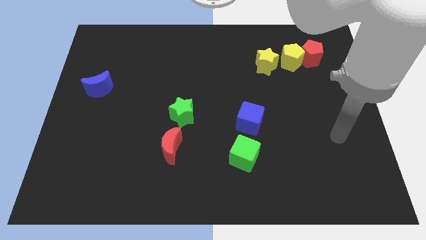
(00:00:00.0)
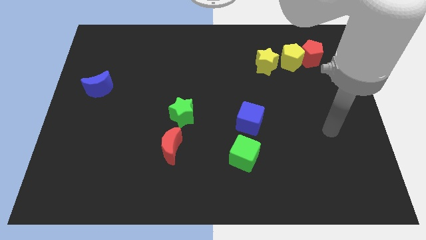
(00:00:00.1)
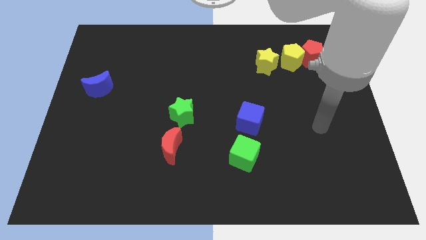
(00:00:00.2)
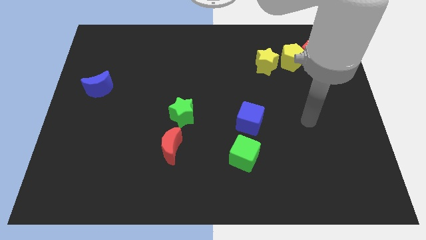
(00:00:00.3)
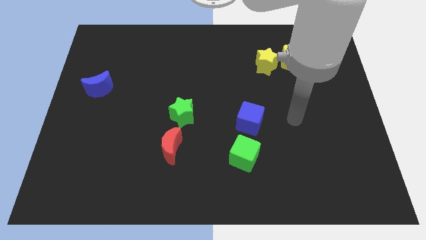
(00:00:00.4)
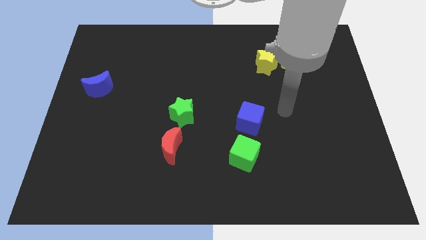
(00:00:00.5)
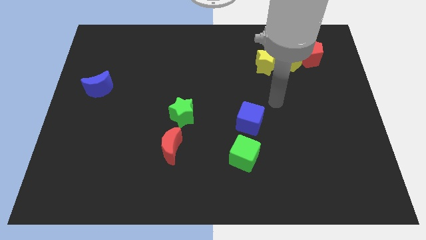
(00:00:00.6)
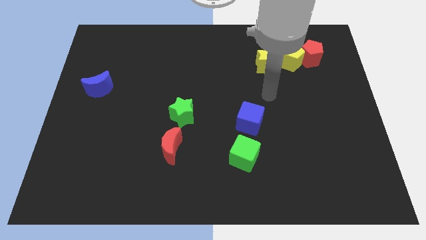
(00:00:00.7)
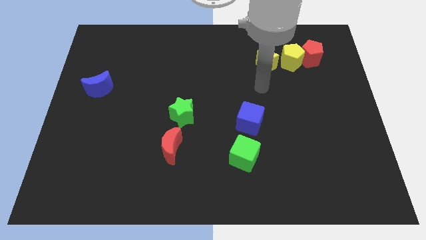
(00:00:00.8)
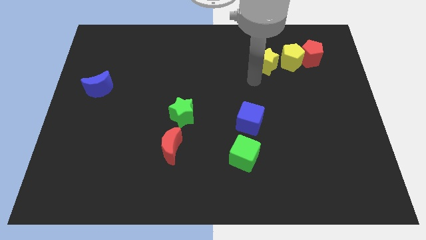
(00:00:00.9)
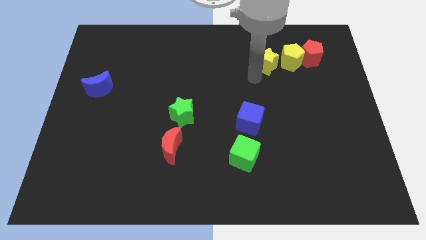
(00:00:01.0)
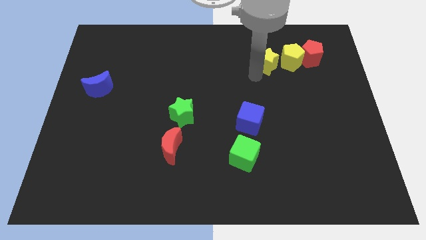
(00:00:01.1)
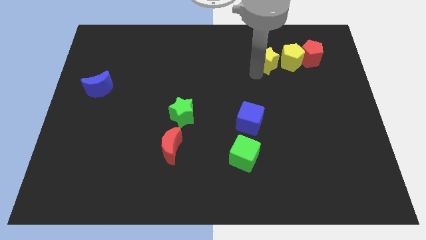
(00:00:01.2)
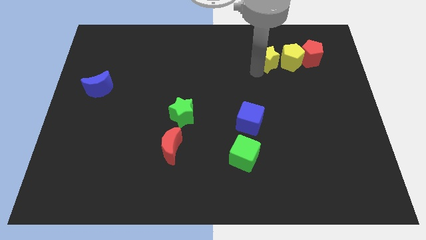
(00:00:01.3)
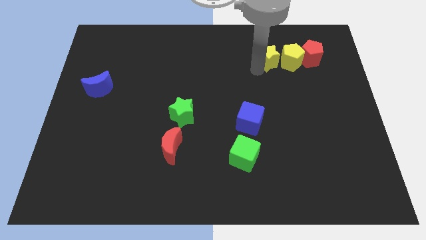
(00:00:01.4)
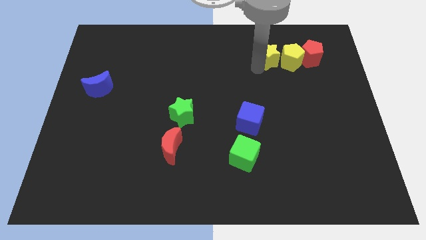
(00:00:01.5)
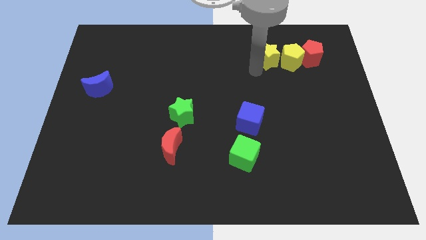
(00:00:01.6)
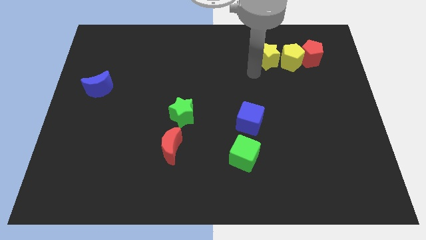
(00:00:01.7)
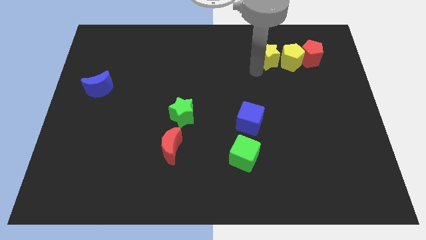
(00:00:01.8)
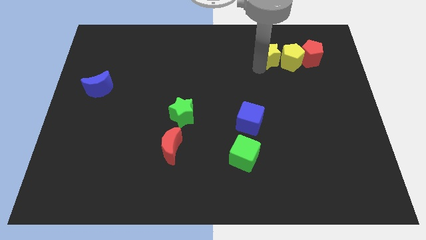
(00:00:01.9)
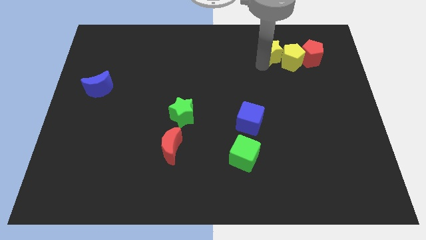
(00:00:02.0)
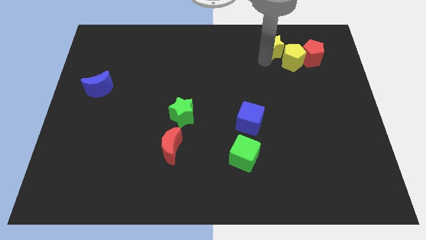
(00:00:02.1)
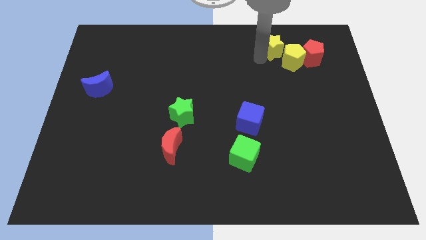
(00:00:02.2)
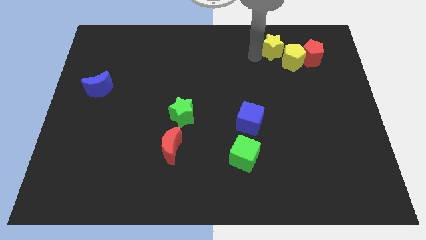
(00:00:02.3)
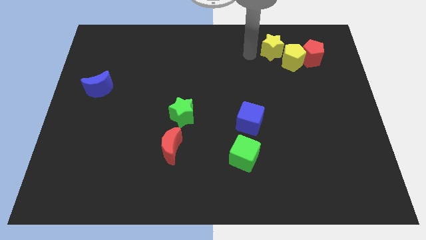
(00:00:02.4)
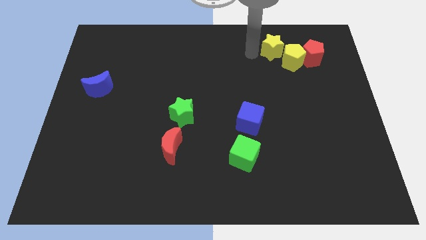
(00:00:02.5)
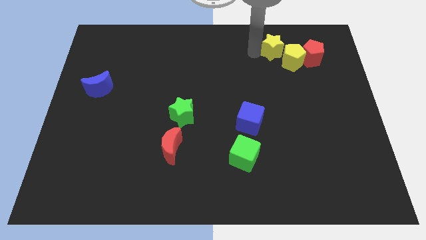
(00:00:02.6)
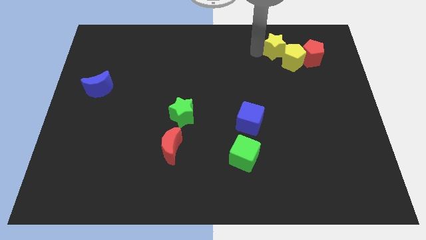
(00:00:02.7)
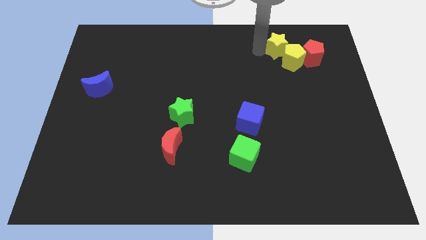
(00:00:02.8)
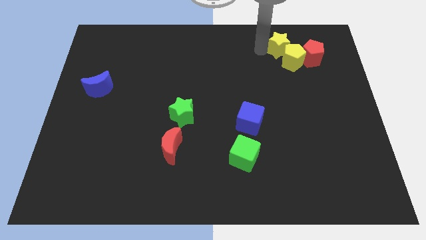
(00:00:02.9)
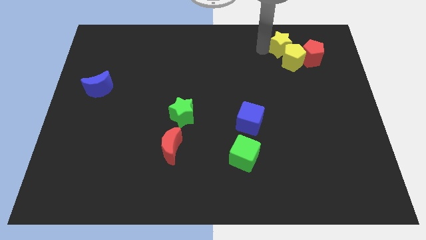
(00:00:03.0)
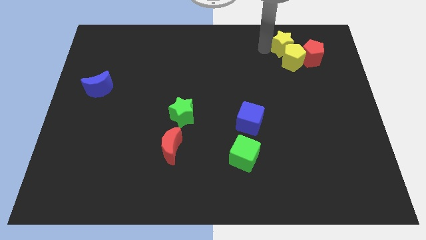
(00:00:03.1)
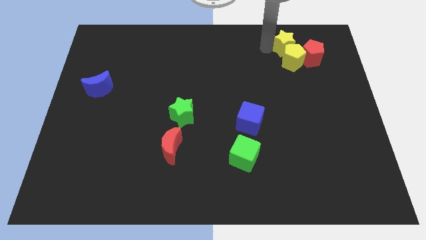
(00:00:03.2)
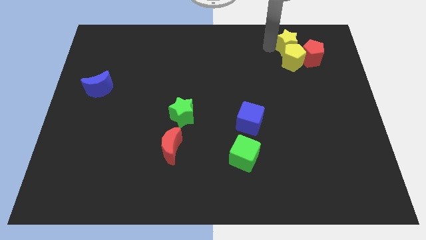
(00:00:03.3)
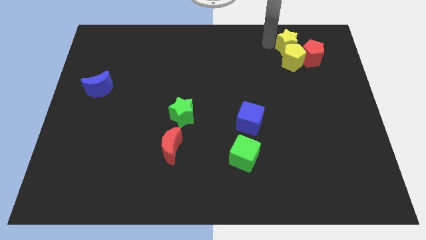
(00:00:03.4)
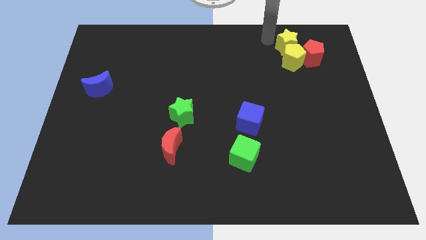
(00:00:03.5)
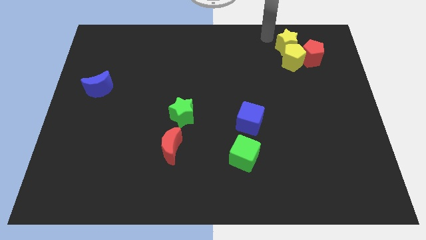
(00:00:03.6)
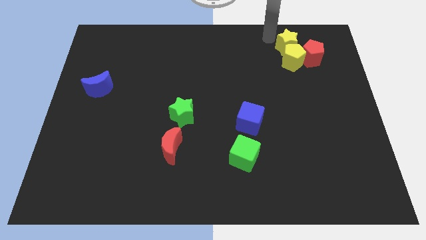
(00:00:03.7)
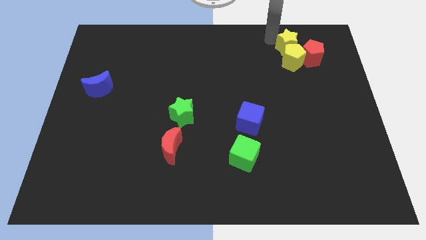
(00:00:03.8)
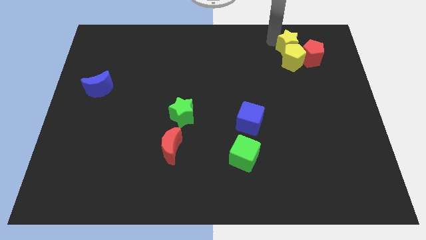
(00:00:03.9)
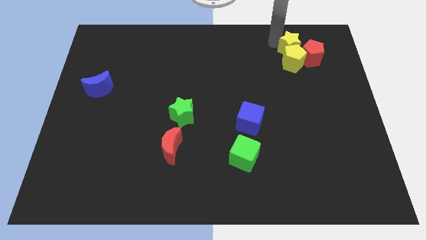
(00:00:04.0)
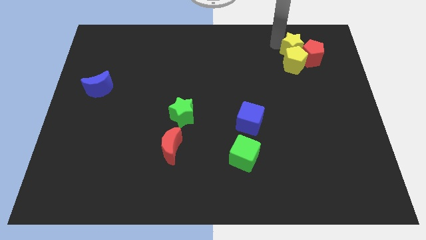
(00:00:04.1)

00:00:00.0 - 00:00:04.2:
put the yellow star close to the red pentagon

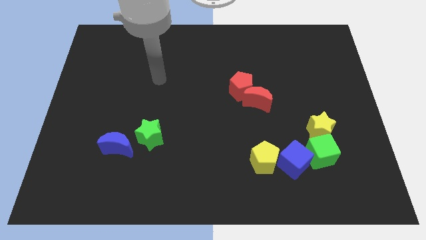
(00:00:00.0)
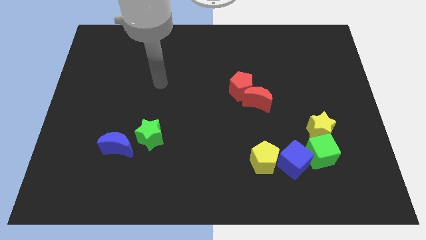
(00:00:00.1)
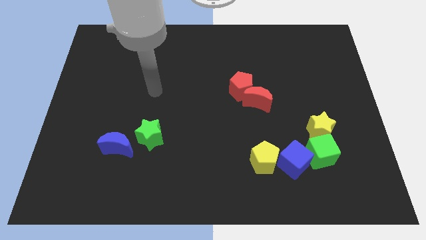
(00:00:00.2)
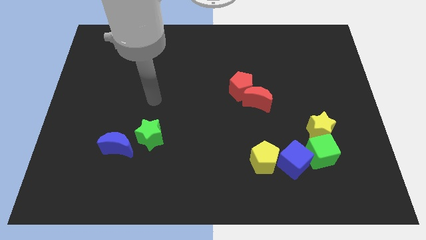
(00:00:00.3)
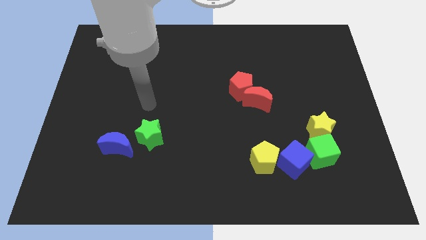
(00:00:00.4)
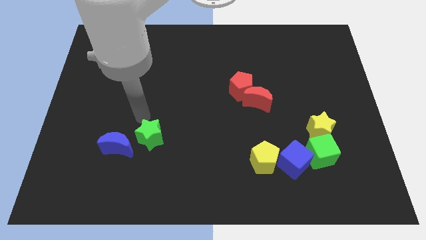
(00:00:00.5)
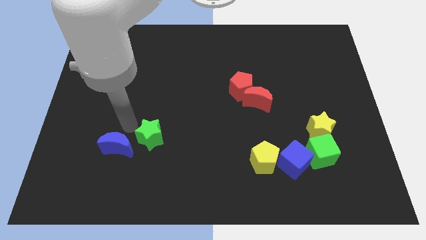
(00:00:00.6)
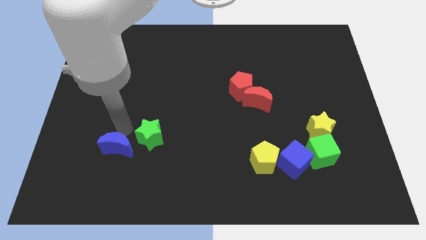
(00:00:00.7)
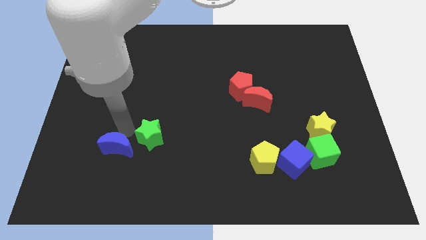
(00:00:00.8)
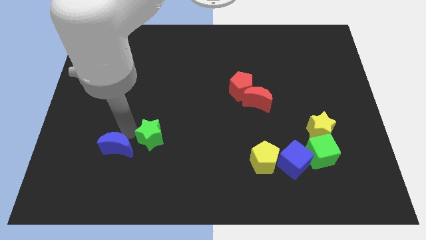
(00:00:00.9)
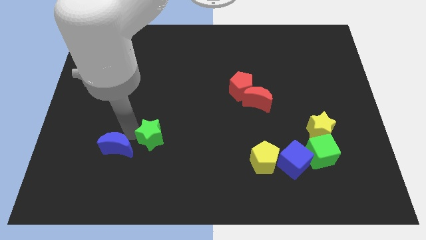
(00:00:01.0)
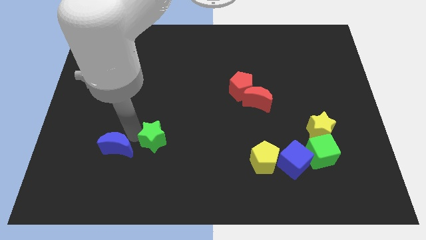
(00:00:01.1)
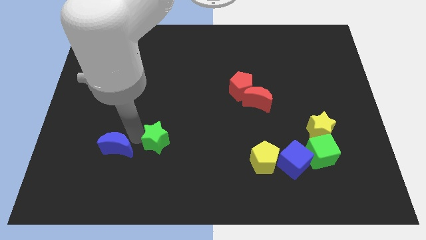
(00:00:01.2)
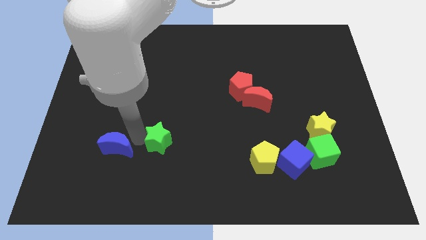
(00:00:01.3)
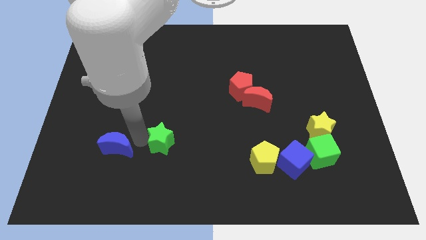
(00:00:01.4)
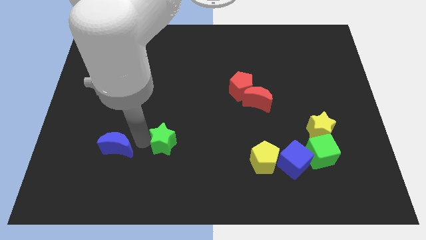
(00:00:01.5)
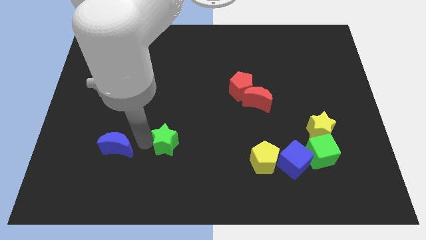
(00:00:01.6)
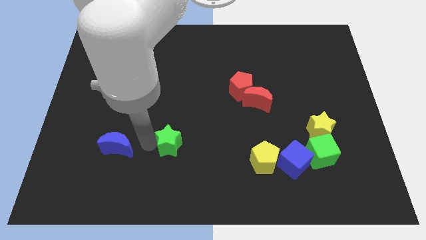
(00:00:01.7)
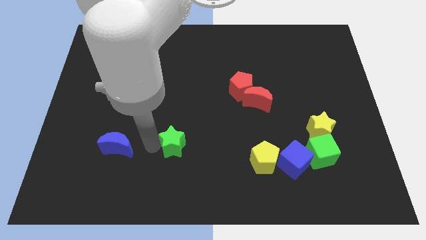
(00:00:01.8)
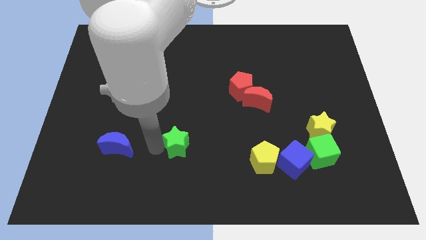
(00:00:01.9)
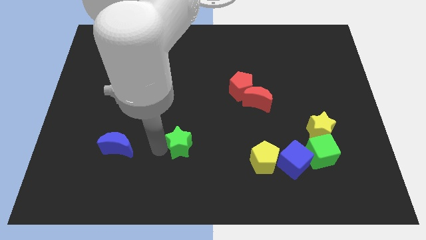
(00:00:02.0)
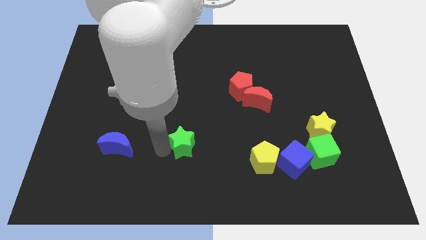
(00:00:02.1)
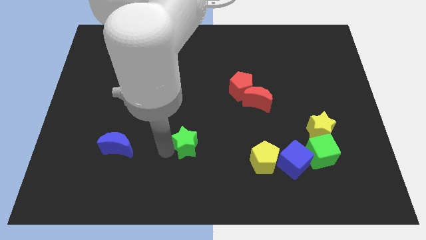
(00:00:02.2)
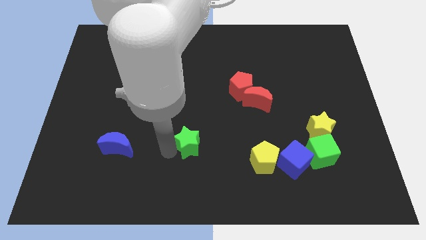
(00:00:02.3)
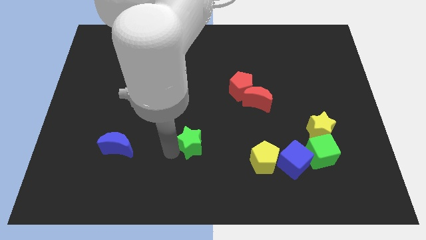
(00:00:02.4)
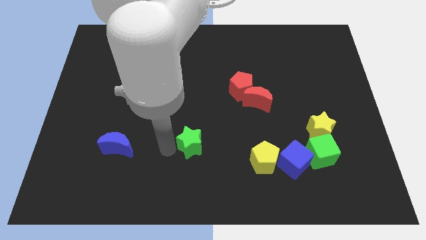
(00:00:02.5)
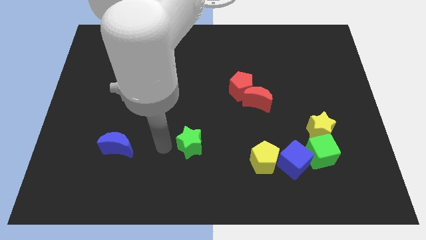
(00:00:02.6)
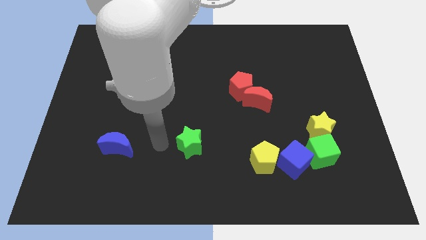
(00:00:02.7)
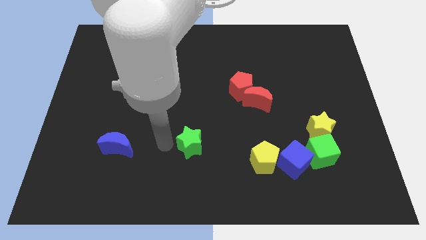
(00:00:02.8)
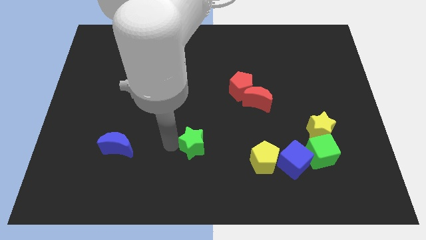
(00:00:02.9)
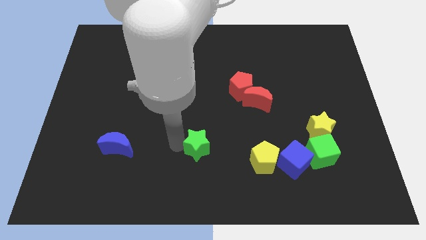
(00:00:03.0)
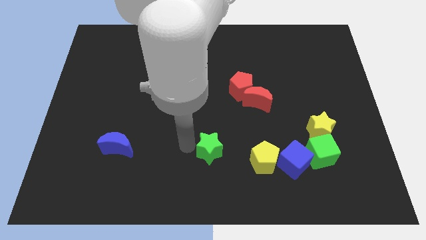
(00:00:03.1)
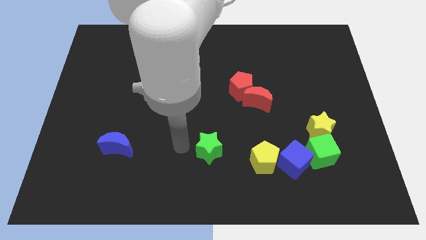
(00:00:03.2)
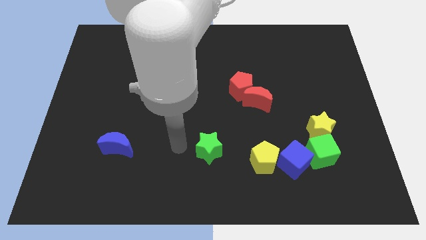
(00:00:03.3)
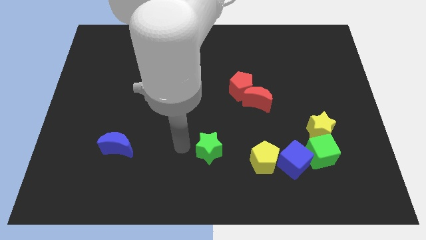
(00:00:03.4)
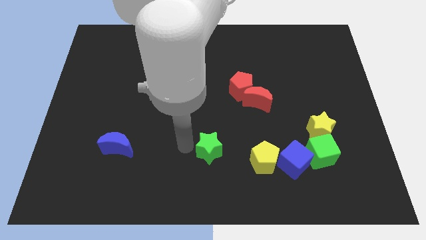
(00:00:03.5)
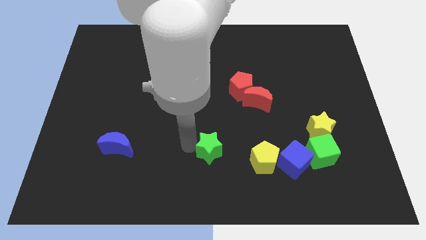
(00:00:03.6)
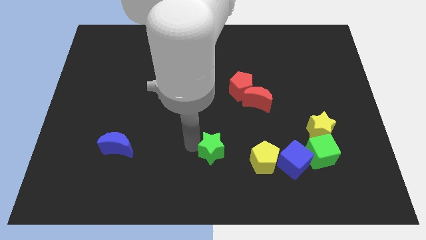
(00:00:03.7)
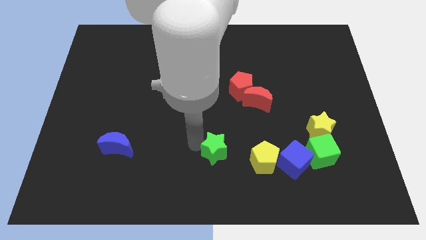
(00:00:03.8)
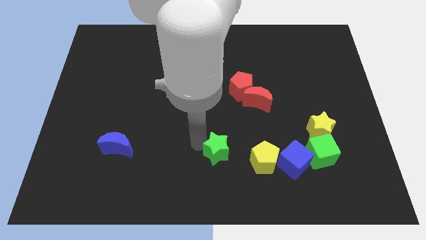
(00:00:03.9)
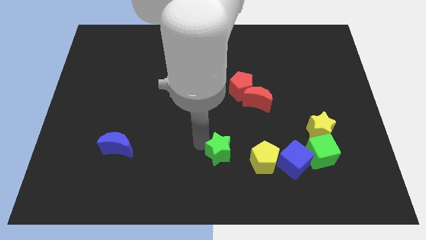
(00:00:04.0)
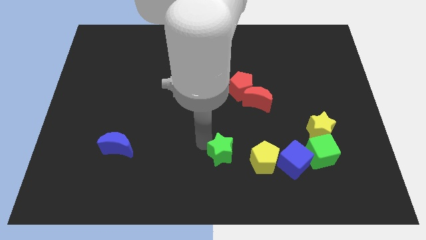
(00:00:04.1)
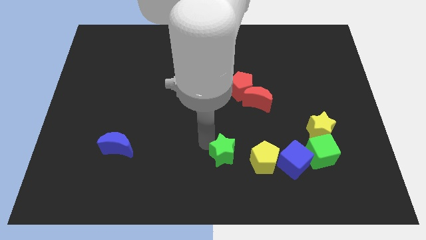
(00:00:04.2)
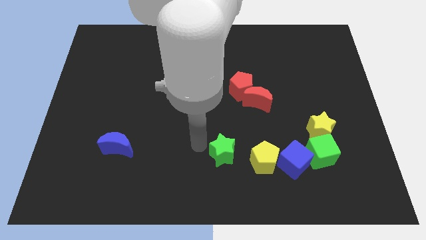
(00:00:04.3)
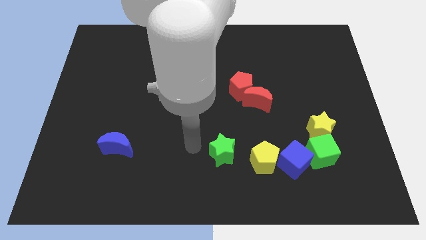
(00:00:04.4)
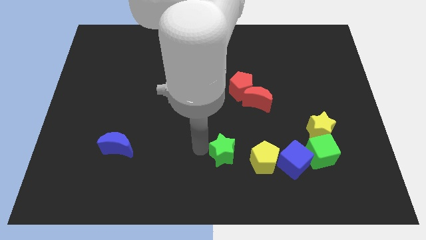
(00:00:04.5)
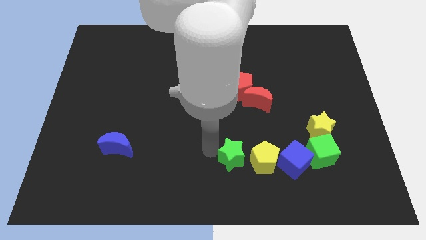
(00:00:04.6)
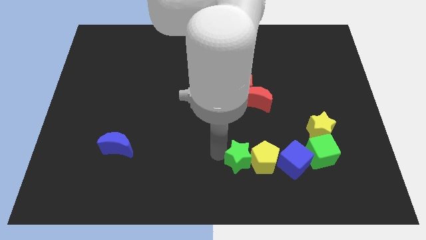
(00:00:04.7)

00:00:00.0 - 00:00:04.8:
push the green star to the yellow pentagon
